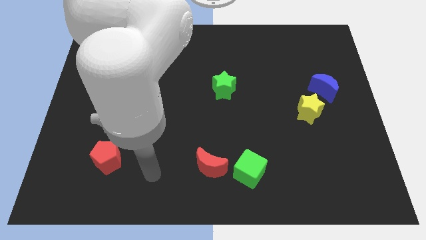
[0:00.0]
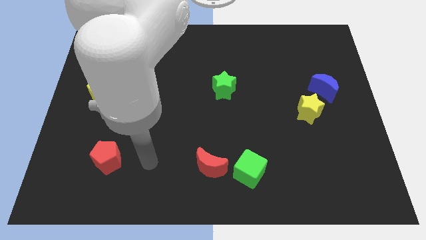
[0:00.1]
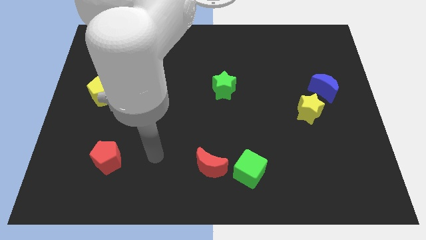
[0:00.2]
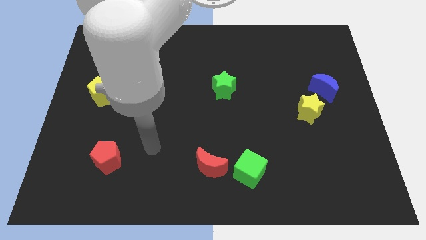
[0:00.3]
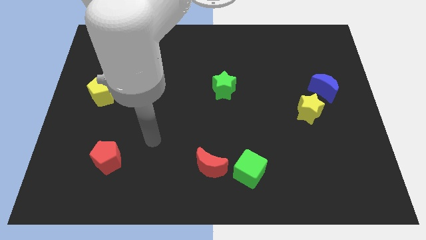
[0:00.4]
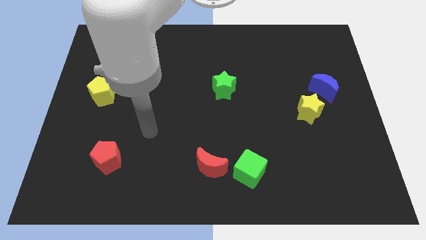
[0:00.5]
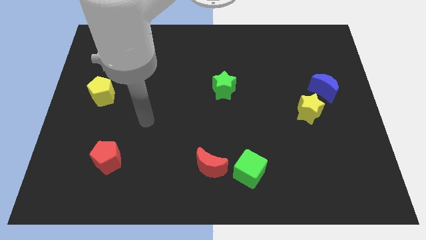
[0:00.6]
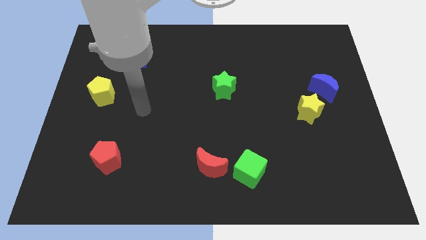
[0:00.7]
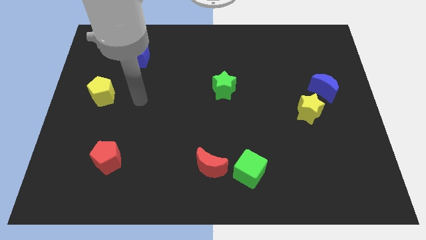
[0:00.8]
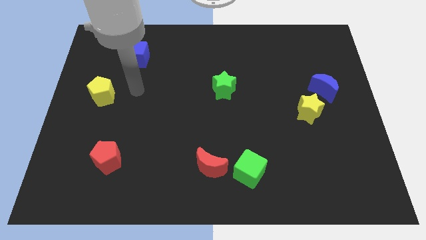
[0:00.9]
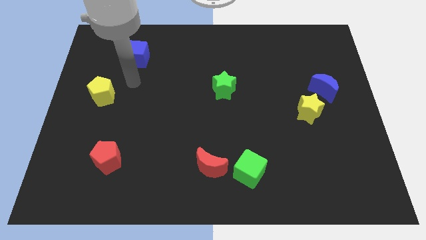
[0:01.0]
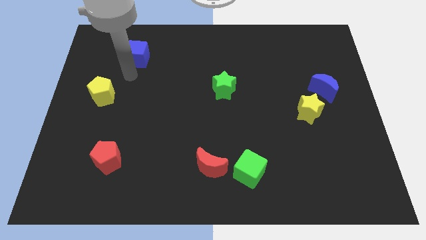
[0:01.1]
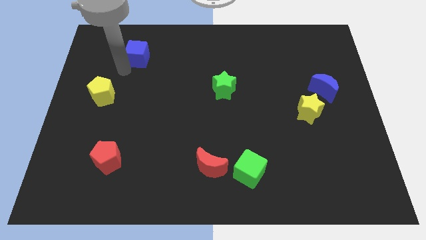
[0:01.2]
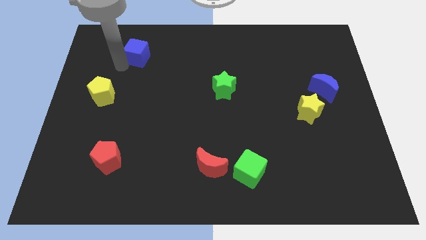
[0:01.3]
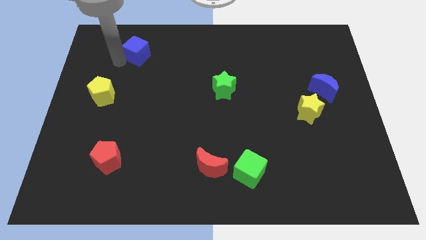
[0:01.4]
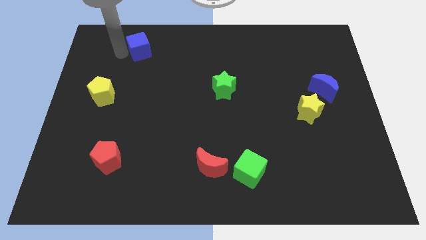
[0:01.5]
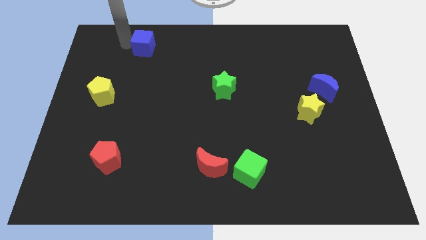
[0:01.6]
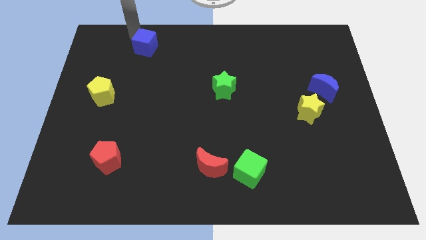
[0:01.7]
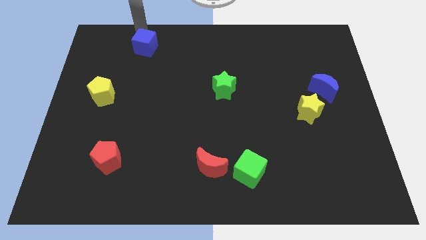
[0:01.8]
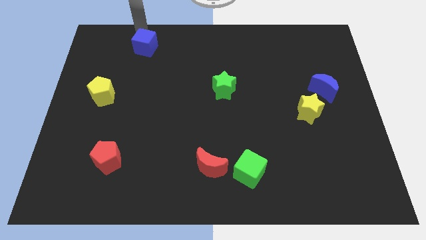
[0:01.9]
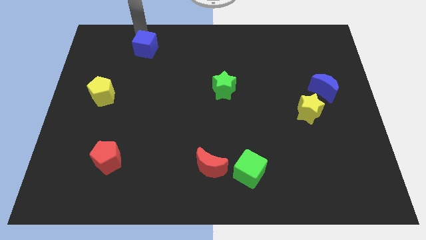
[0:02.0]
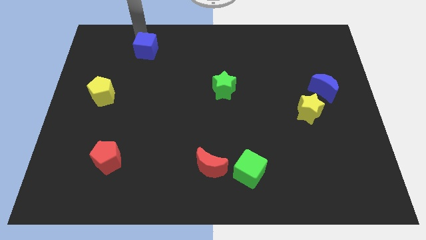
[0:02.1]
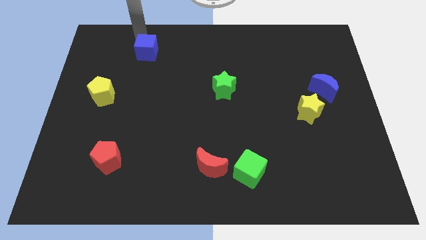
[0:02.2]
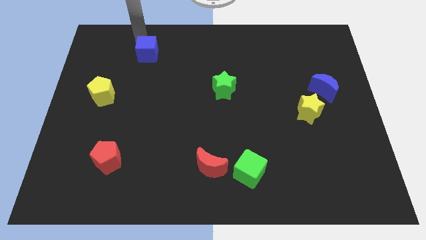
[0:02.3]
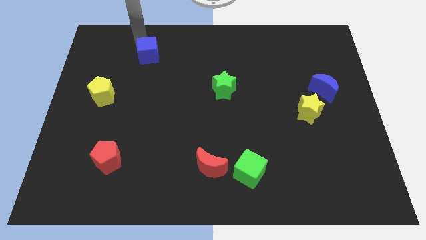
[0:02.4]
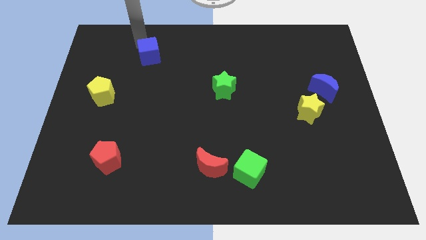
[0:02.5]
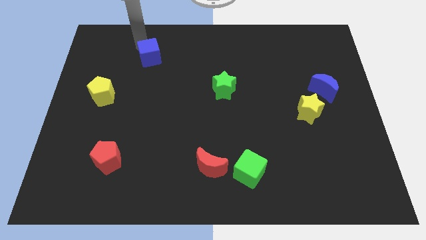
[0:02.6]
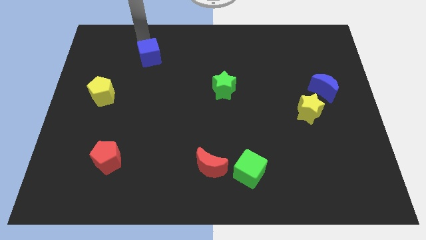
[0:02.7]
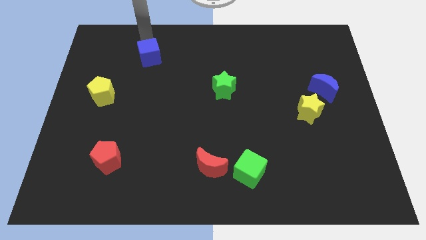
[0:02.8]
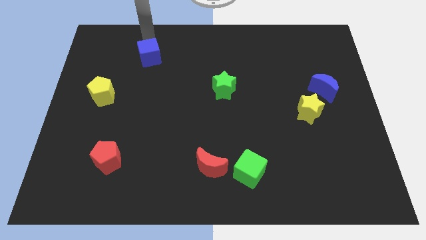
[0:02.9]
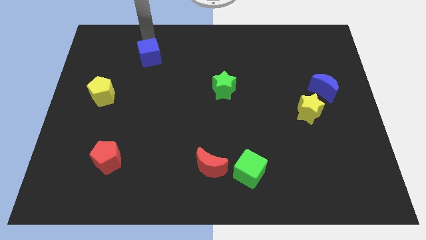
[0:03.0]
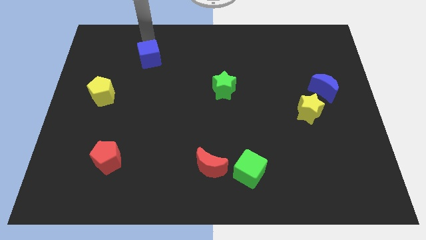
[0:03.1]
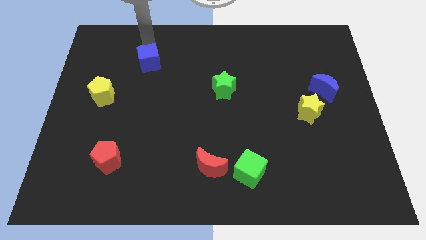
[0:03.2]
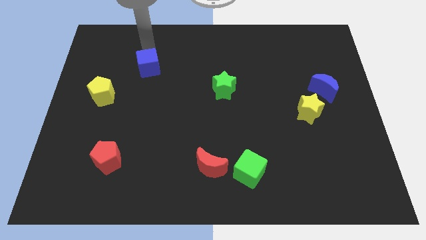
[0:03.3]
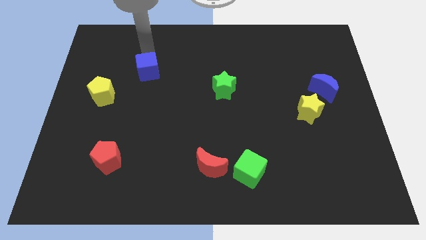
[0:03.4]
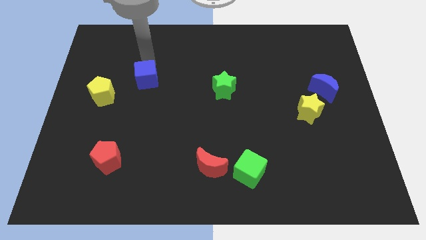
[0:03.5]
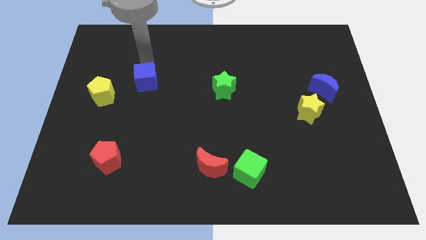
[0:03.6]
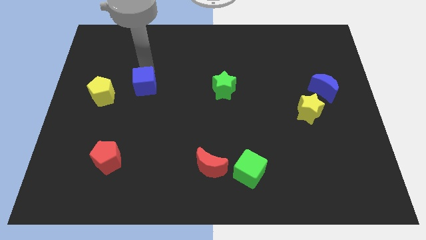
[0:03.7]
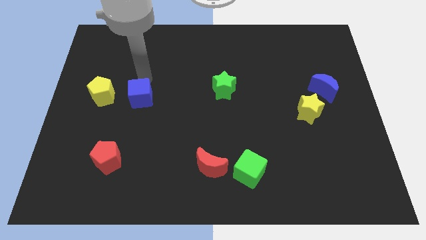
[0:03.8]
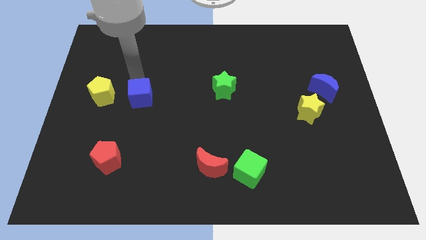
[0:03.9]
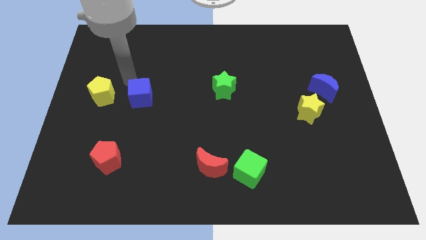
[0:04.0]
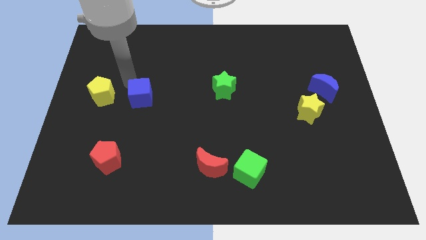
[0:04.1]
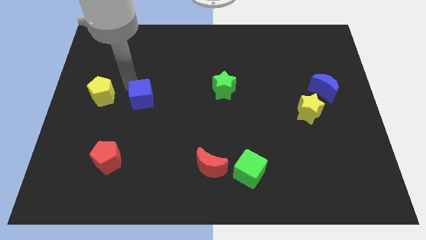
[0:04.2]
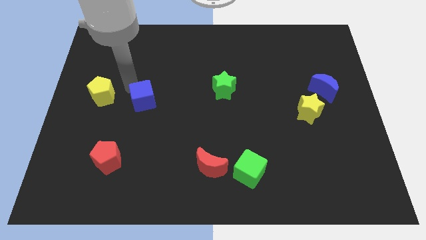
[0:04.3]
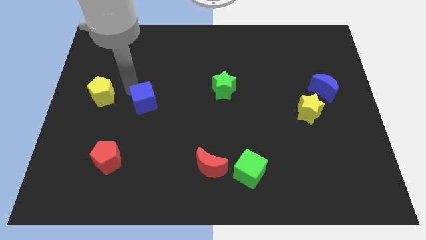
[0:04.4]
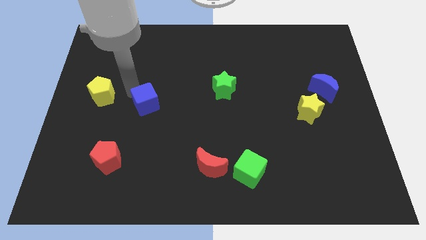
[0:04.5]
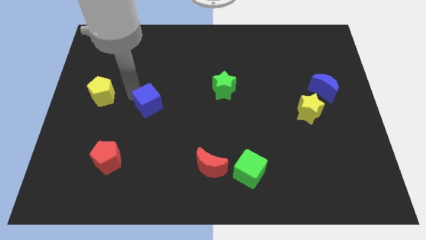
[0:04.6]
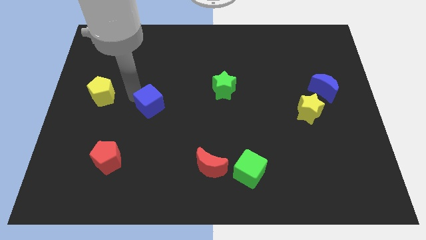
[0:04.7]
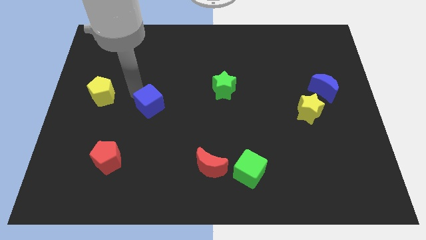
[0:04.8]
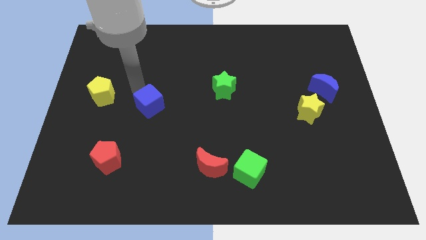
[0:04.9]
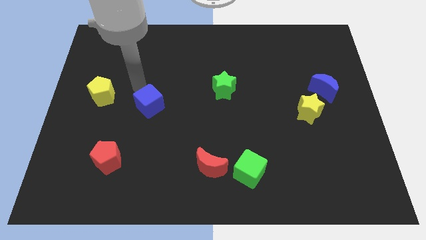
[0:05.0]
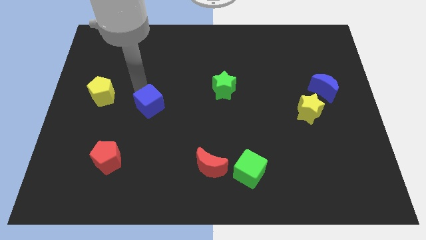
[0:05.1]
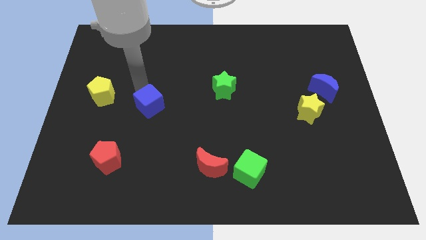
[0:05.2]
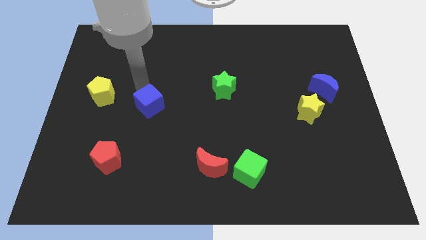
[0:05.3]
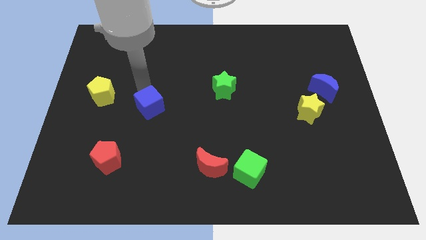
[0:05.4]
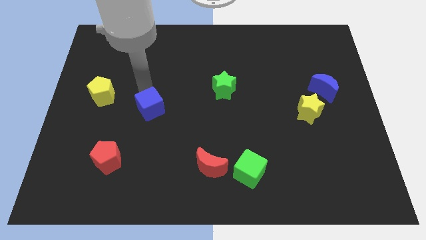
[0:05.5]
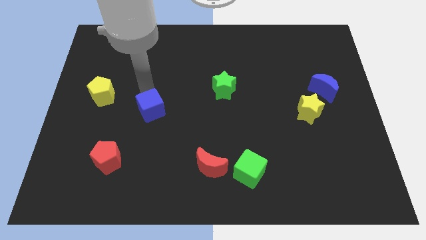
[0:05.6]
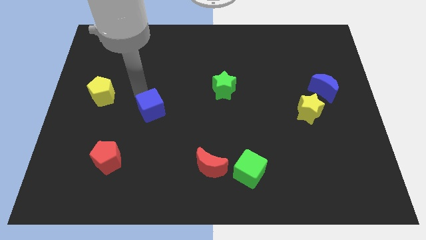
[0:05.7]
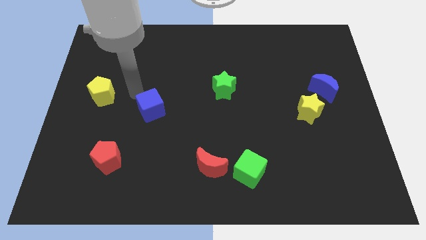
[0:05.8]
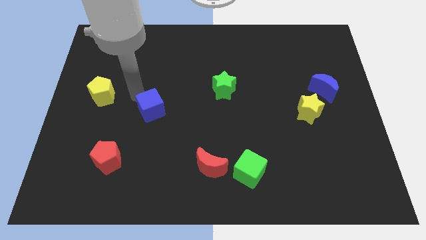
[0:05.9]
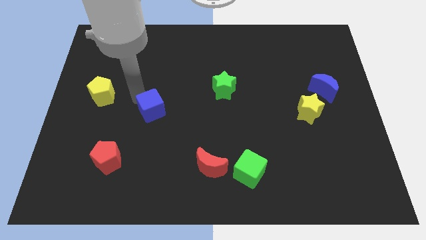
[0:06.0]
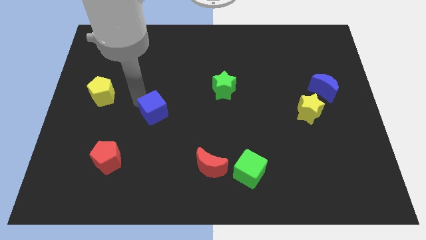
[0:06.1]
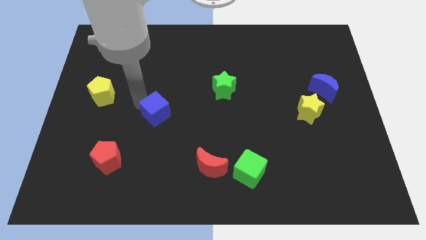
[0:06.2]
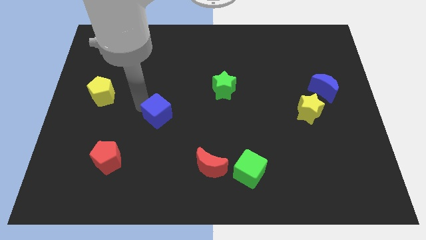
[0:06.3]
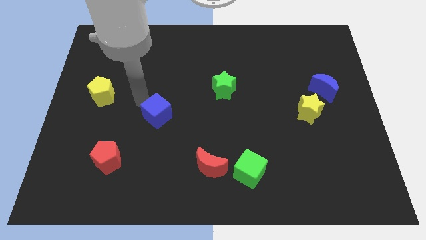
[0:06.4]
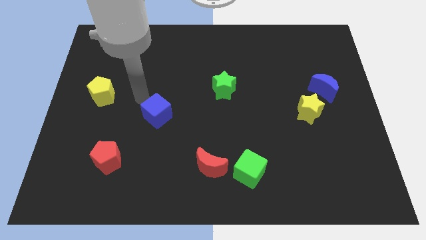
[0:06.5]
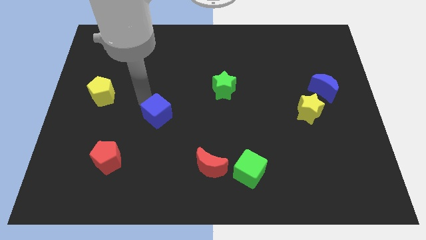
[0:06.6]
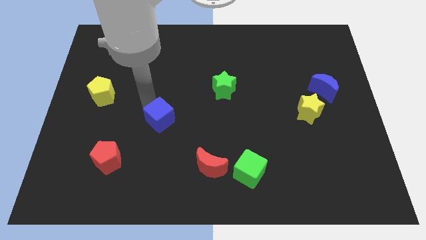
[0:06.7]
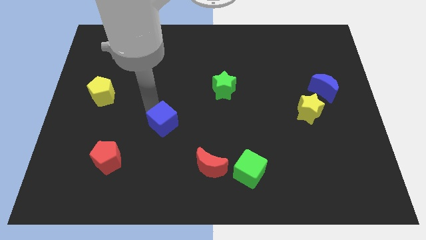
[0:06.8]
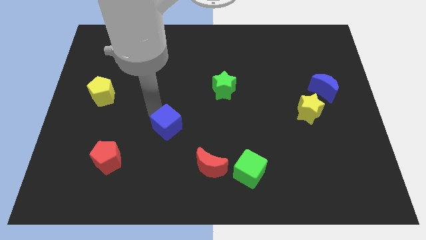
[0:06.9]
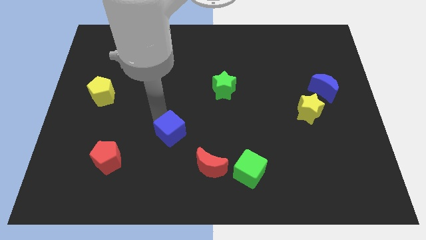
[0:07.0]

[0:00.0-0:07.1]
push the blue cube to the top left side of the red moon
